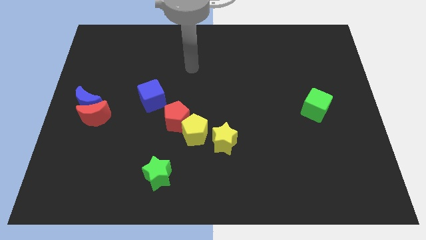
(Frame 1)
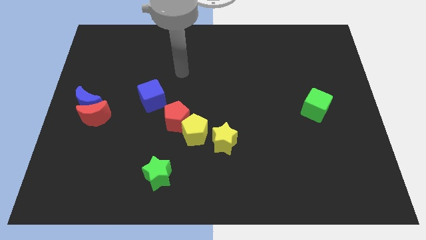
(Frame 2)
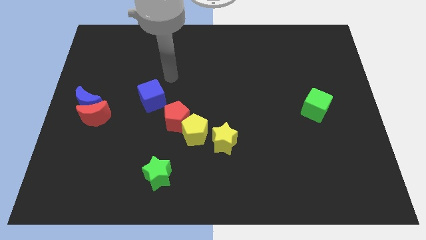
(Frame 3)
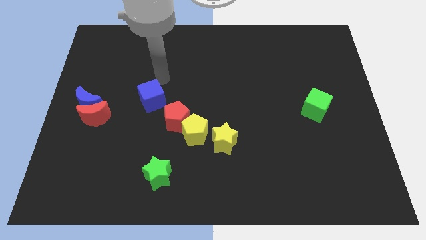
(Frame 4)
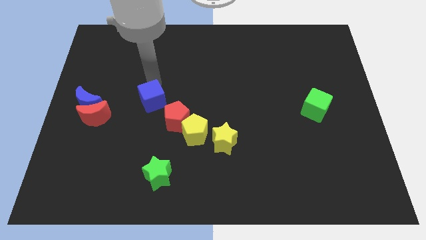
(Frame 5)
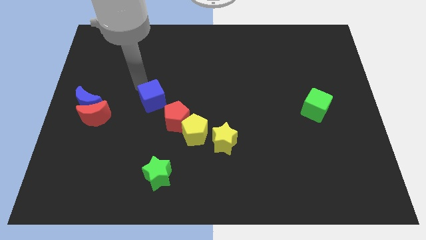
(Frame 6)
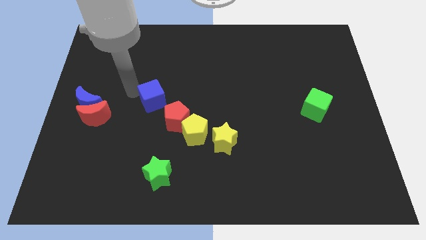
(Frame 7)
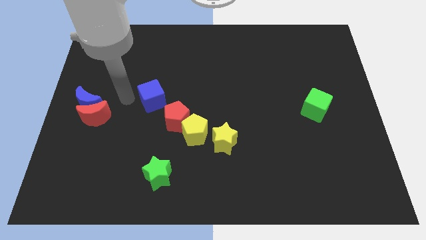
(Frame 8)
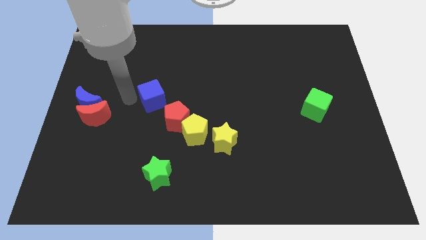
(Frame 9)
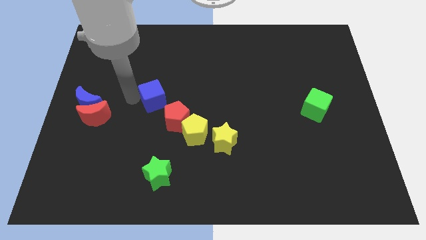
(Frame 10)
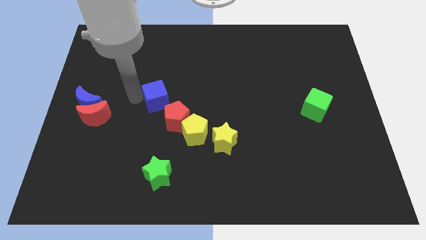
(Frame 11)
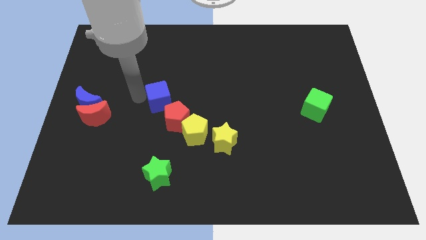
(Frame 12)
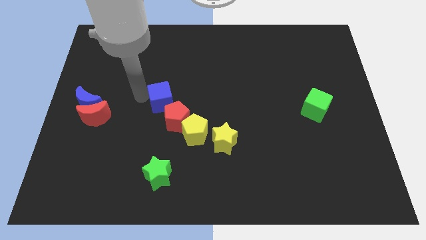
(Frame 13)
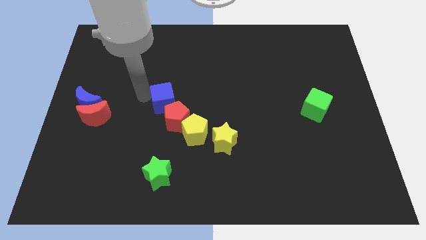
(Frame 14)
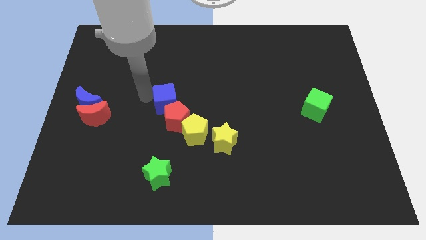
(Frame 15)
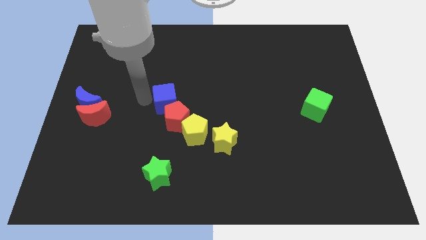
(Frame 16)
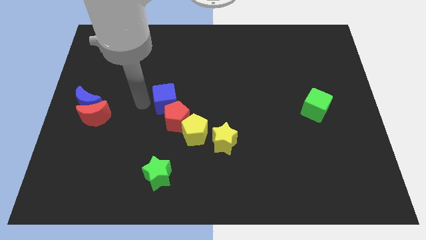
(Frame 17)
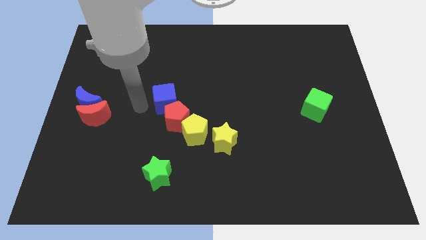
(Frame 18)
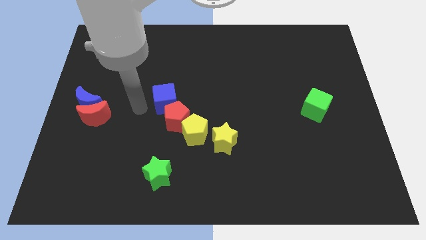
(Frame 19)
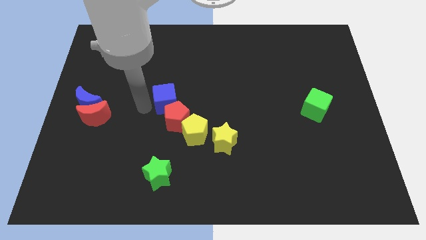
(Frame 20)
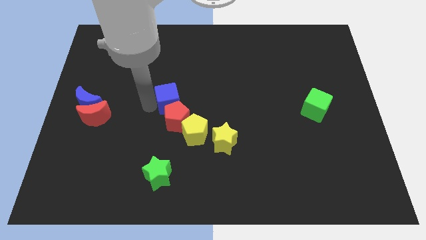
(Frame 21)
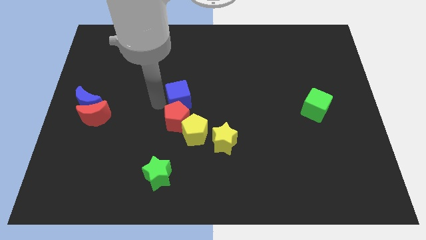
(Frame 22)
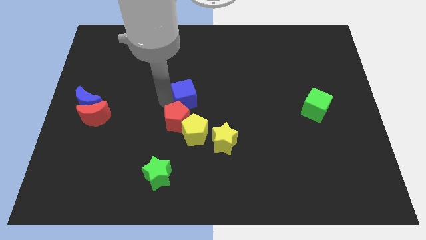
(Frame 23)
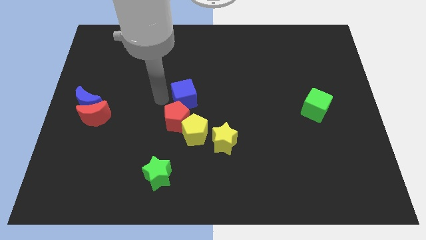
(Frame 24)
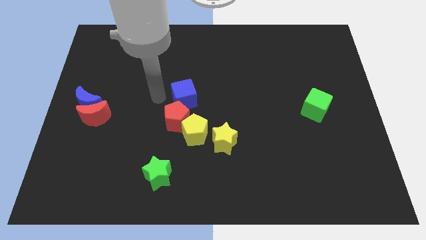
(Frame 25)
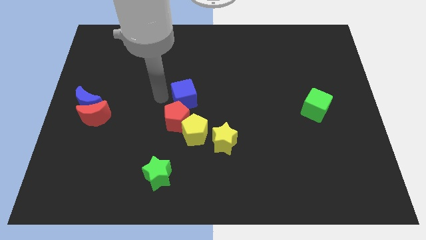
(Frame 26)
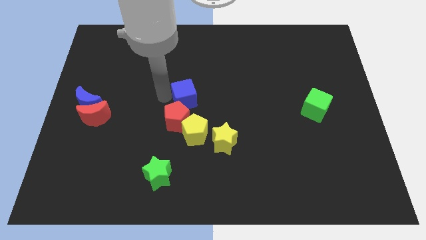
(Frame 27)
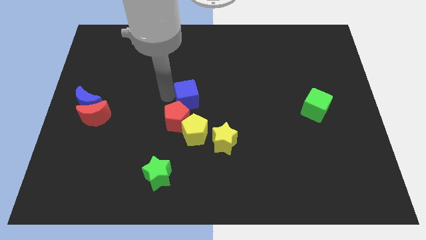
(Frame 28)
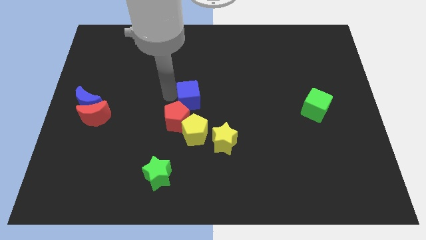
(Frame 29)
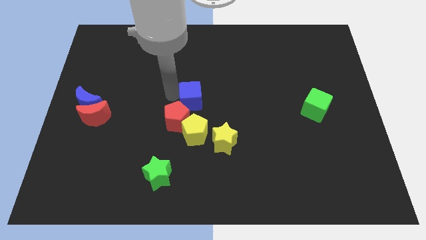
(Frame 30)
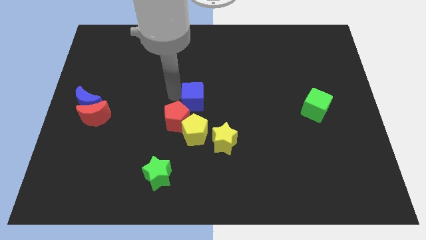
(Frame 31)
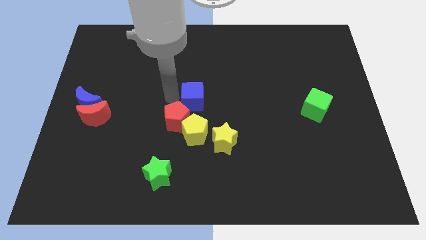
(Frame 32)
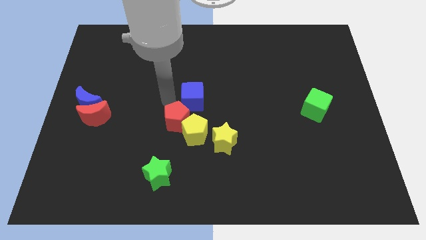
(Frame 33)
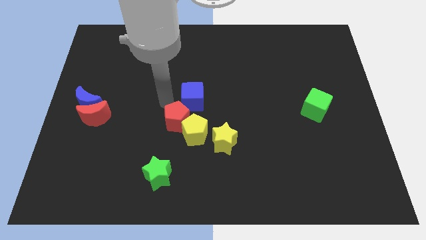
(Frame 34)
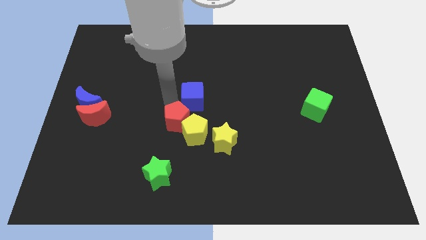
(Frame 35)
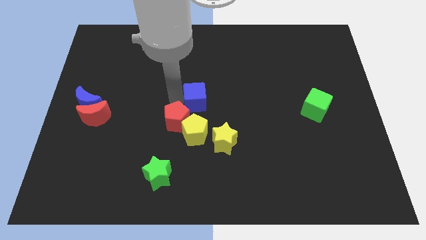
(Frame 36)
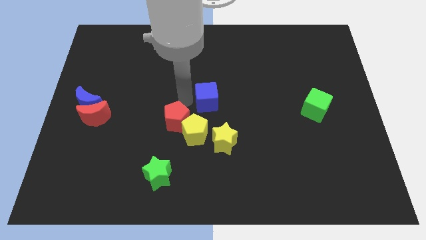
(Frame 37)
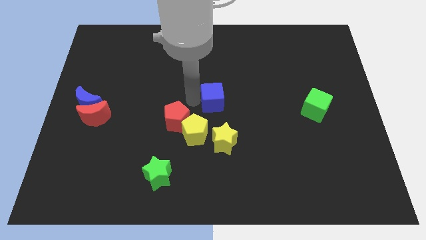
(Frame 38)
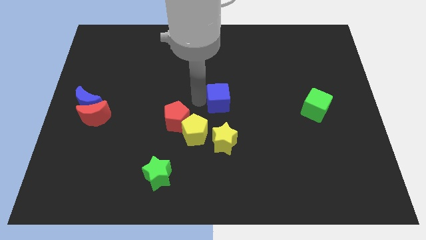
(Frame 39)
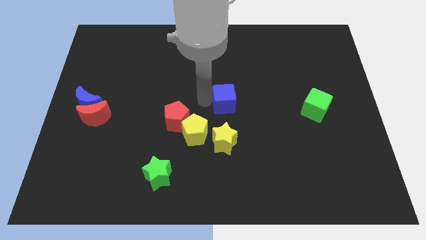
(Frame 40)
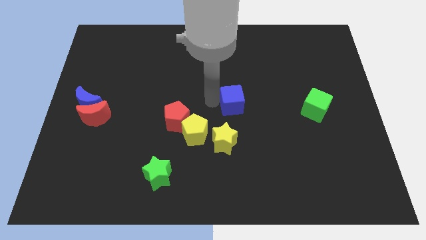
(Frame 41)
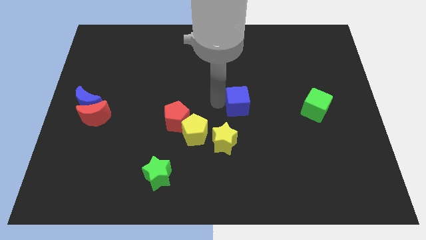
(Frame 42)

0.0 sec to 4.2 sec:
move the blue cube to the right

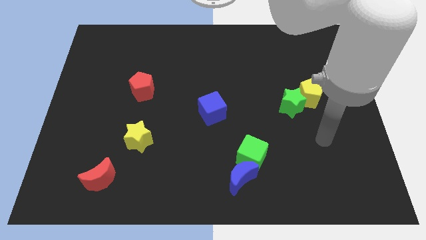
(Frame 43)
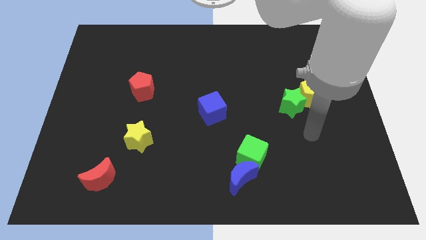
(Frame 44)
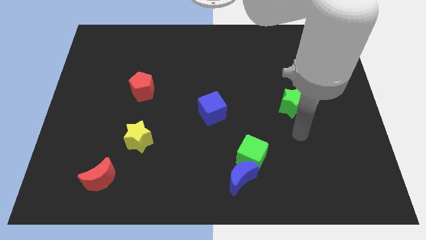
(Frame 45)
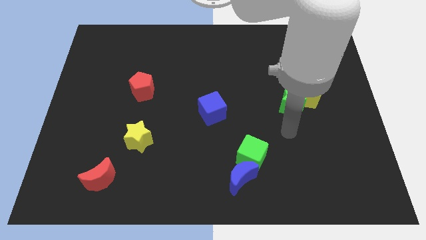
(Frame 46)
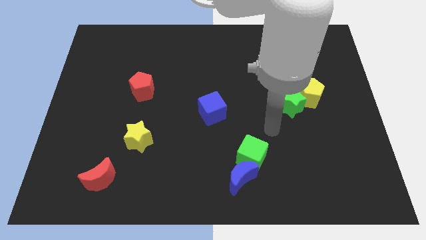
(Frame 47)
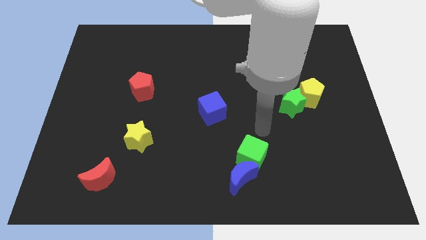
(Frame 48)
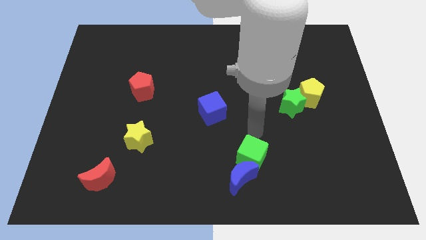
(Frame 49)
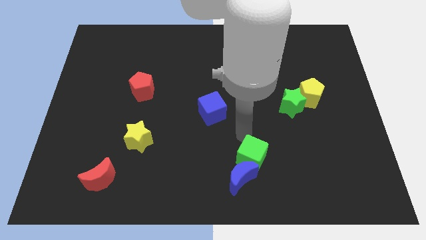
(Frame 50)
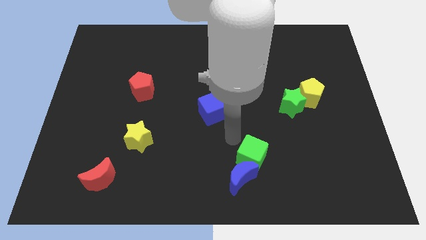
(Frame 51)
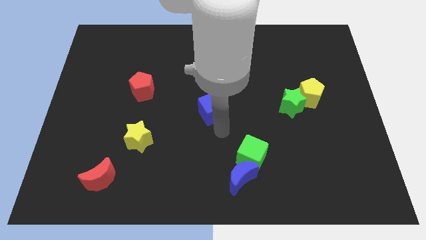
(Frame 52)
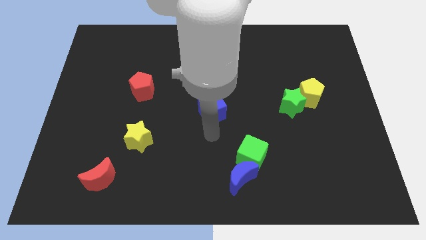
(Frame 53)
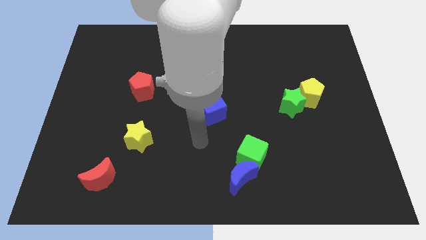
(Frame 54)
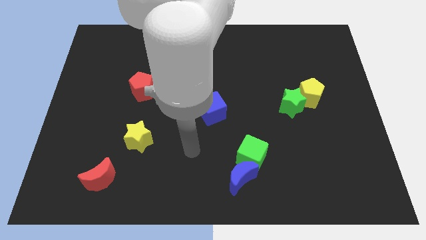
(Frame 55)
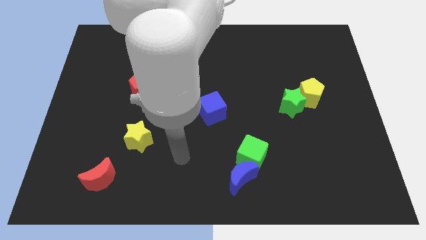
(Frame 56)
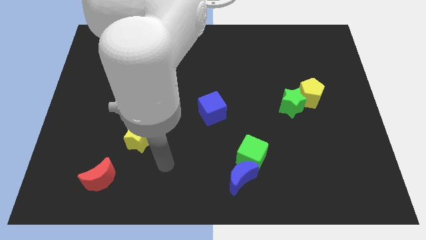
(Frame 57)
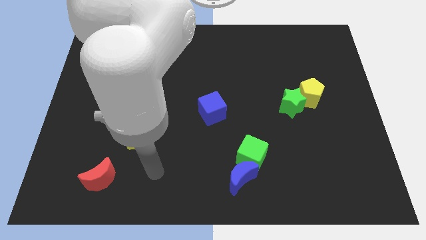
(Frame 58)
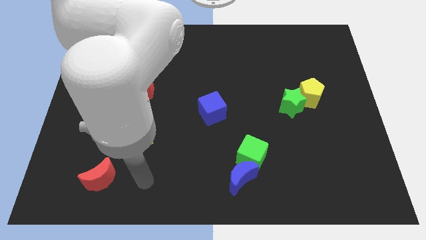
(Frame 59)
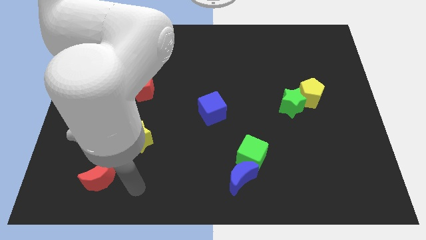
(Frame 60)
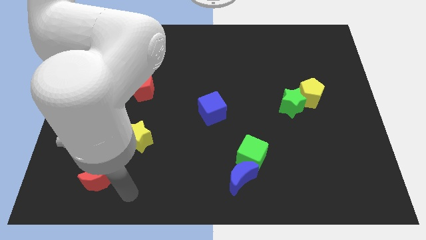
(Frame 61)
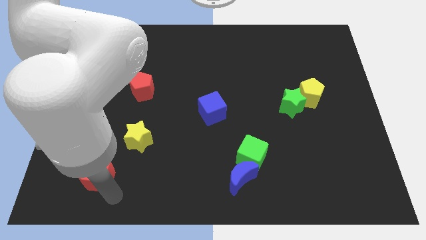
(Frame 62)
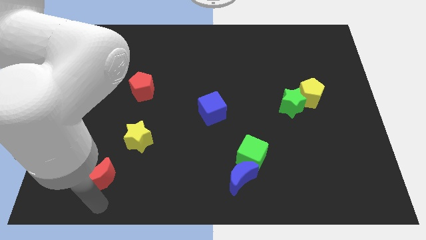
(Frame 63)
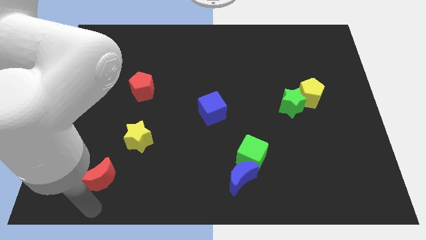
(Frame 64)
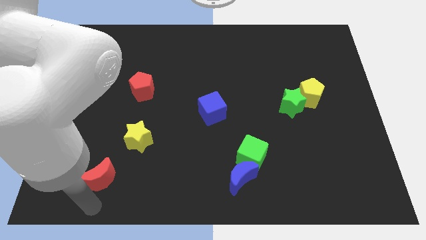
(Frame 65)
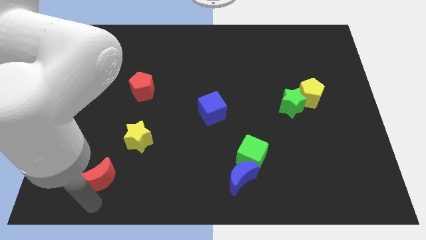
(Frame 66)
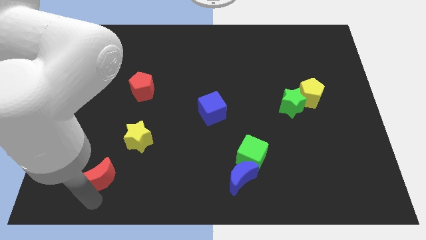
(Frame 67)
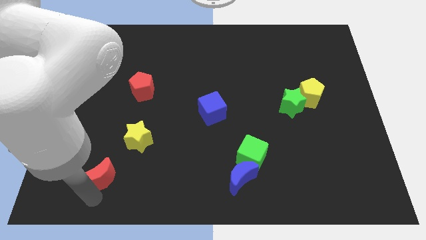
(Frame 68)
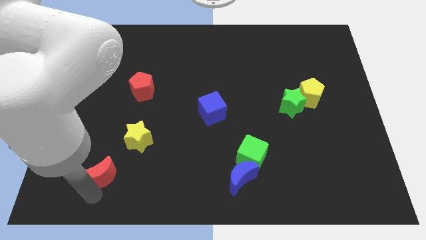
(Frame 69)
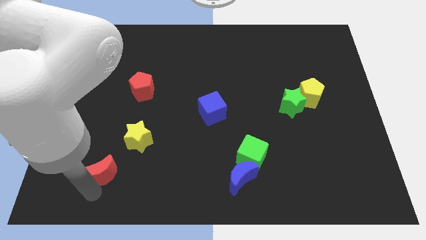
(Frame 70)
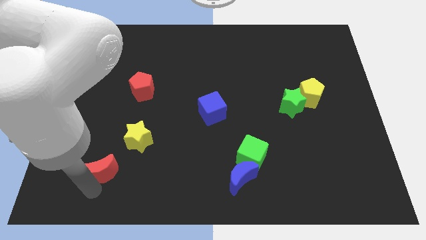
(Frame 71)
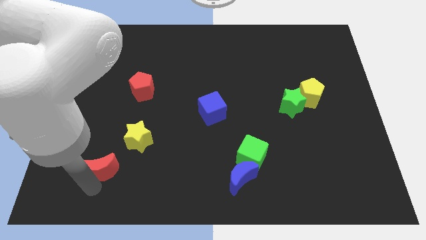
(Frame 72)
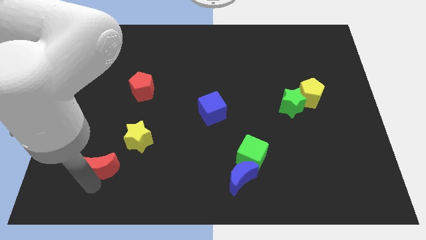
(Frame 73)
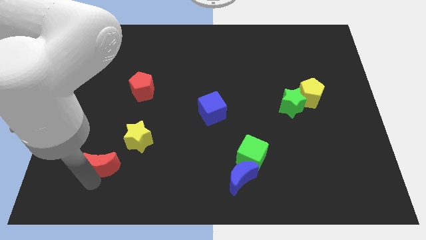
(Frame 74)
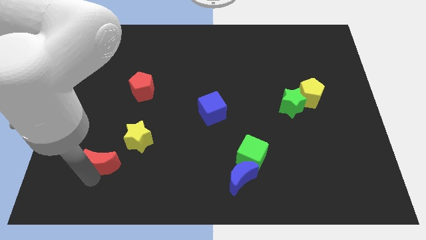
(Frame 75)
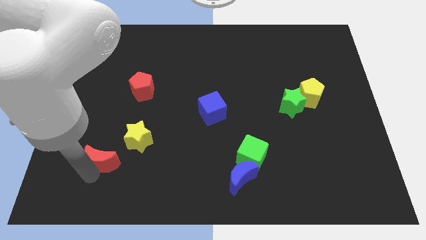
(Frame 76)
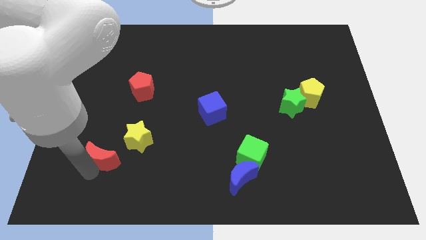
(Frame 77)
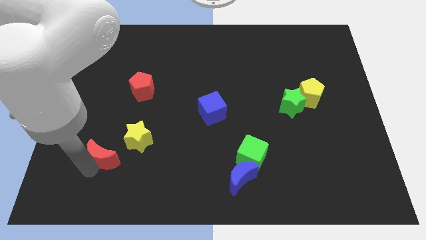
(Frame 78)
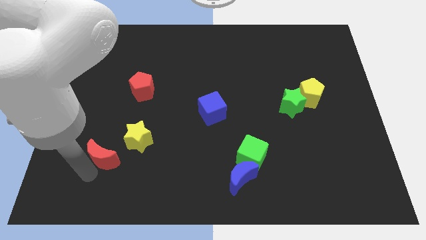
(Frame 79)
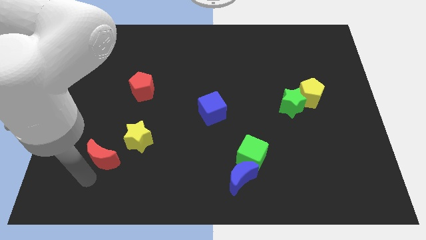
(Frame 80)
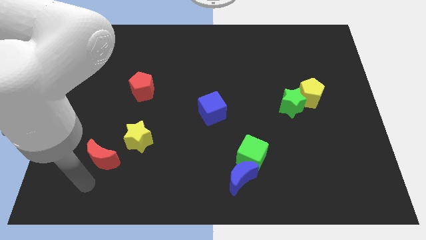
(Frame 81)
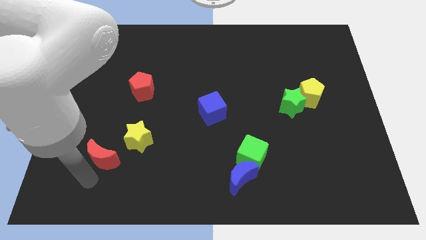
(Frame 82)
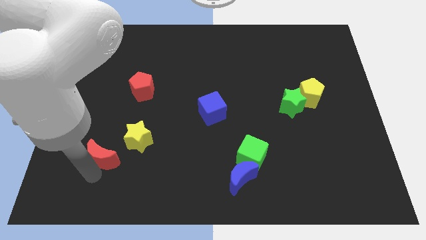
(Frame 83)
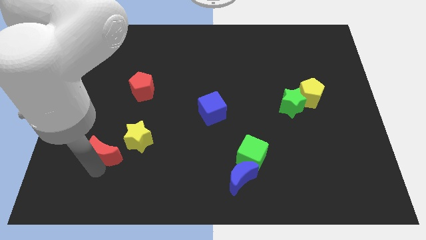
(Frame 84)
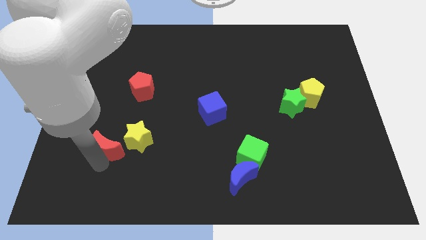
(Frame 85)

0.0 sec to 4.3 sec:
slightly move the red moon up
